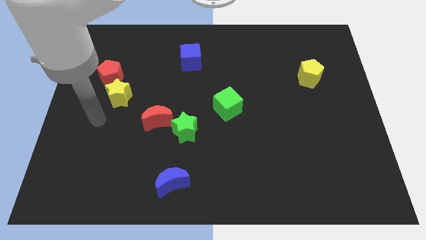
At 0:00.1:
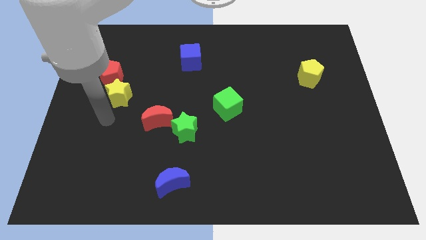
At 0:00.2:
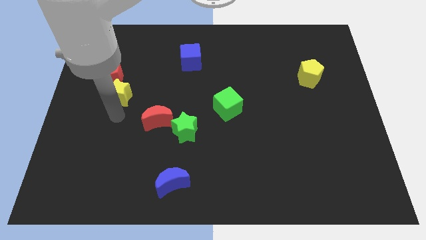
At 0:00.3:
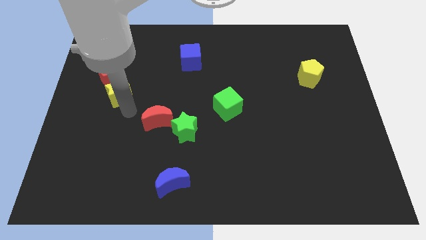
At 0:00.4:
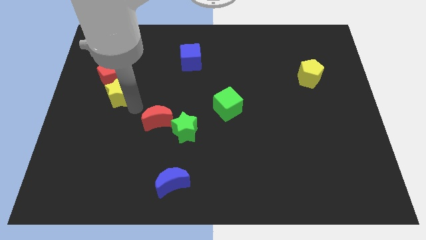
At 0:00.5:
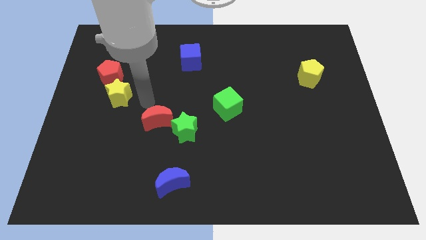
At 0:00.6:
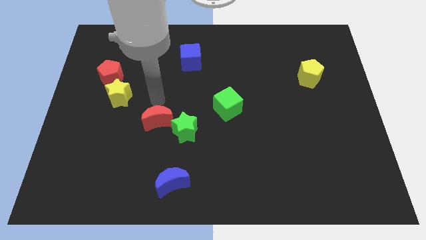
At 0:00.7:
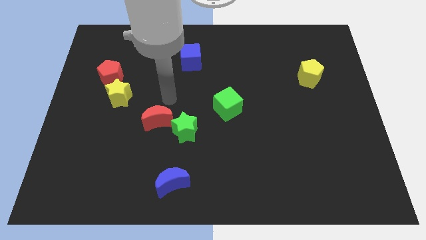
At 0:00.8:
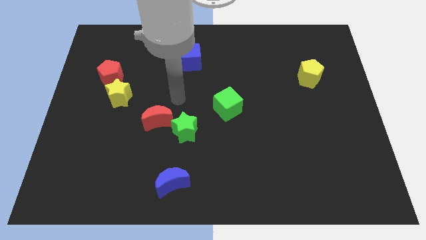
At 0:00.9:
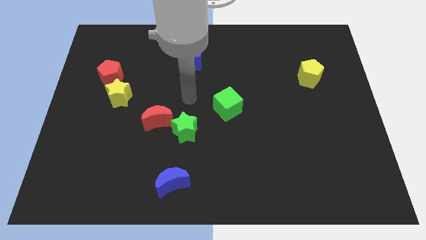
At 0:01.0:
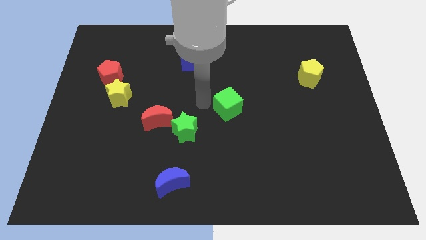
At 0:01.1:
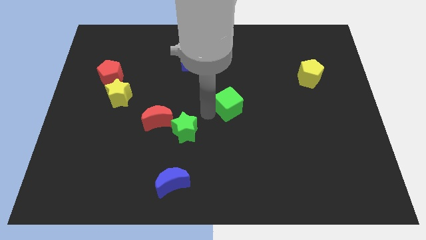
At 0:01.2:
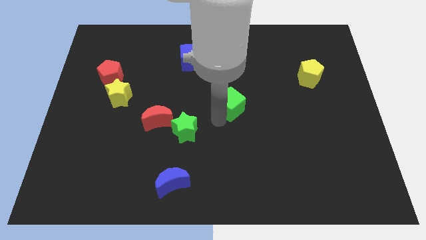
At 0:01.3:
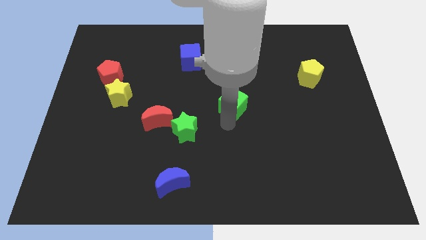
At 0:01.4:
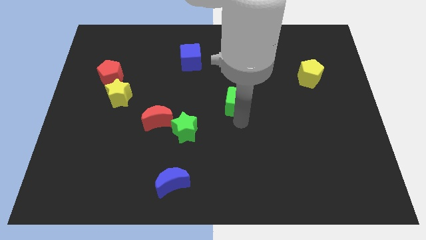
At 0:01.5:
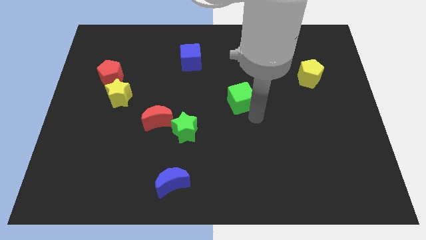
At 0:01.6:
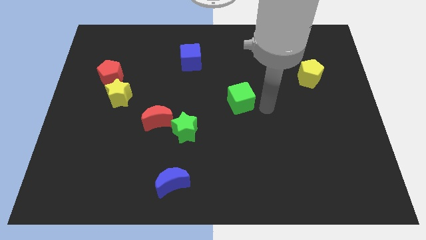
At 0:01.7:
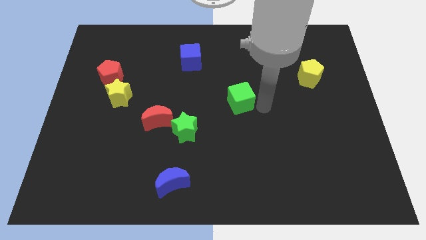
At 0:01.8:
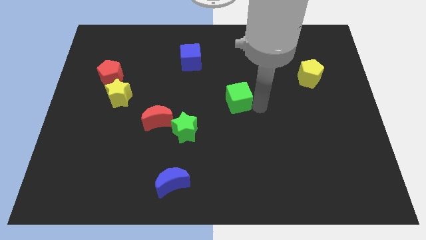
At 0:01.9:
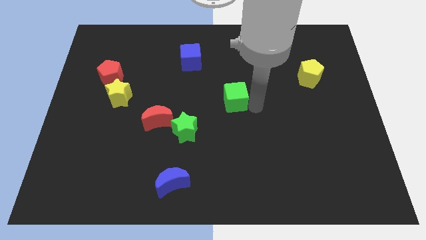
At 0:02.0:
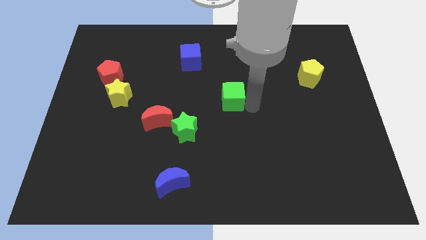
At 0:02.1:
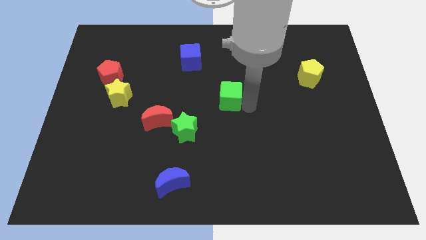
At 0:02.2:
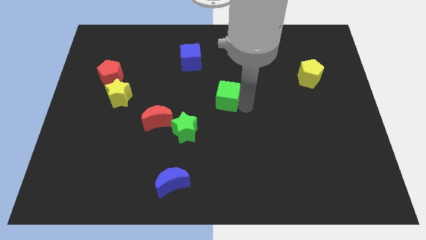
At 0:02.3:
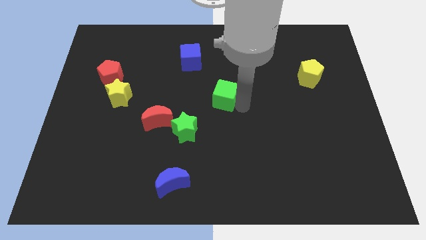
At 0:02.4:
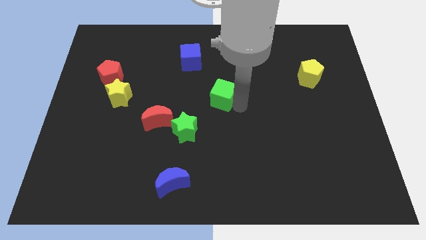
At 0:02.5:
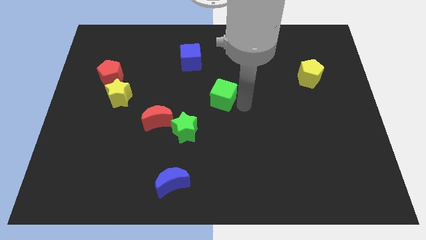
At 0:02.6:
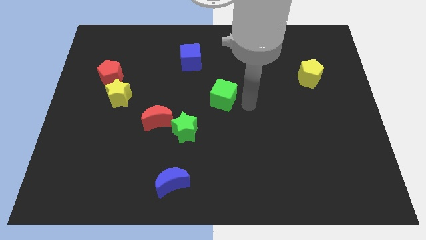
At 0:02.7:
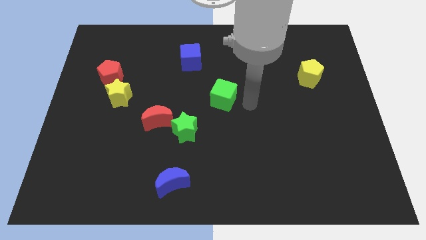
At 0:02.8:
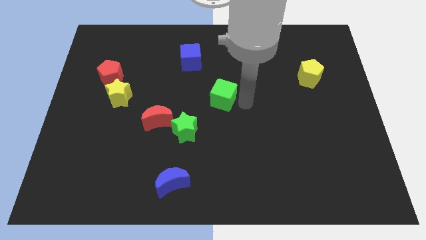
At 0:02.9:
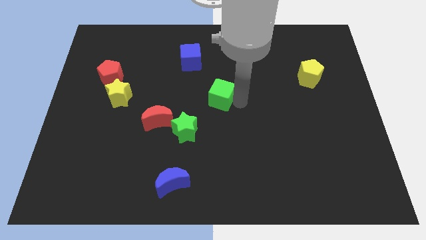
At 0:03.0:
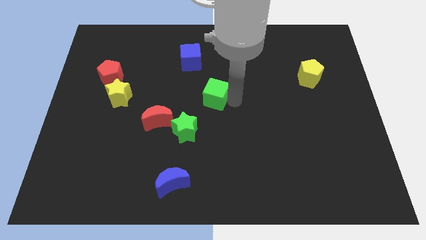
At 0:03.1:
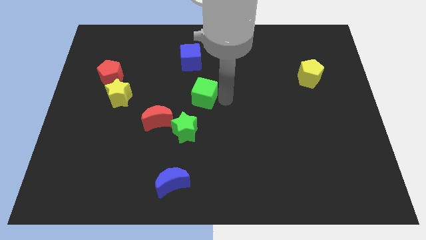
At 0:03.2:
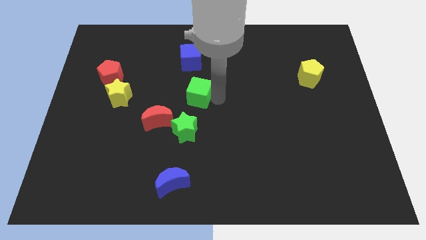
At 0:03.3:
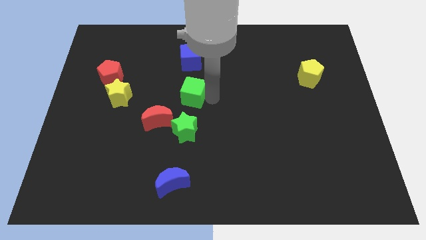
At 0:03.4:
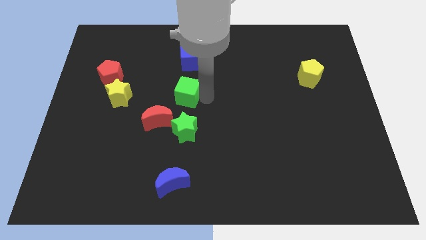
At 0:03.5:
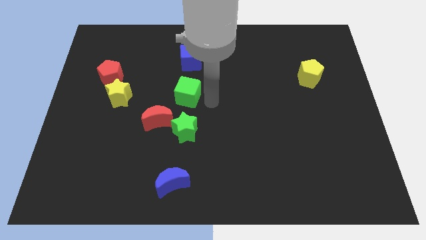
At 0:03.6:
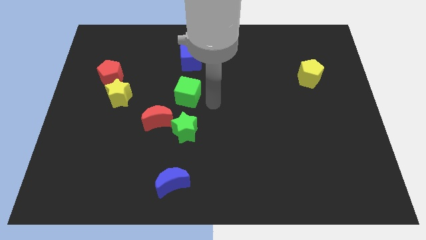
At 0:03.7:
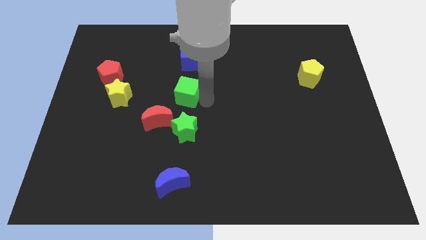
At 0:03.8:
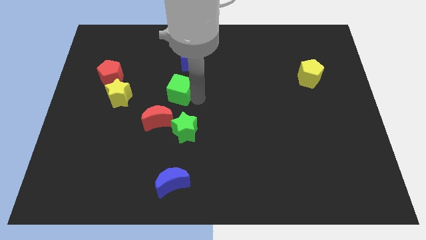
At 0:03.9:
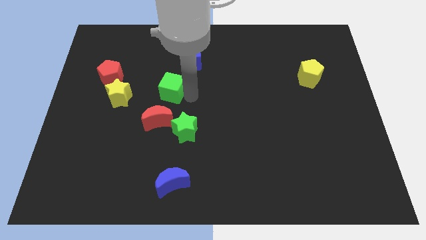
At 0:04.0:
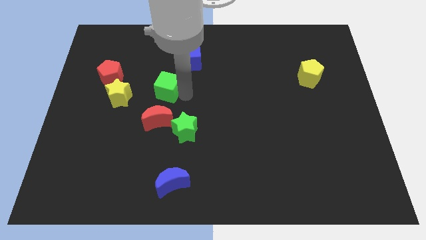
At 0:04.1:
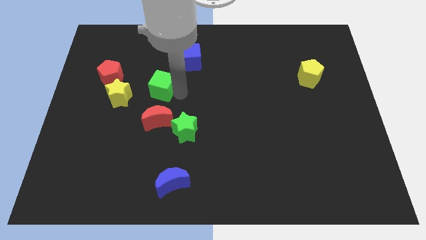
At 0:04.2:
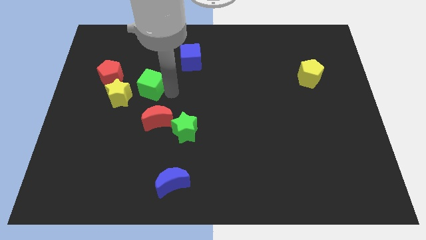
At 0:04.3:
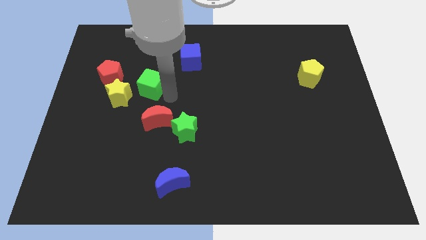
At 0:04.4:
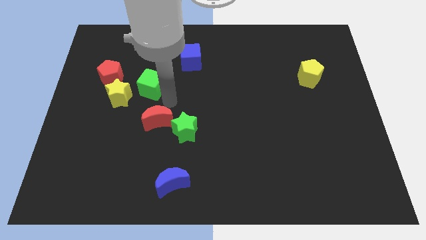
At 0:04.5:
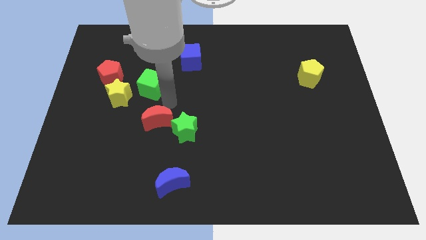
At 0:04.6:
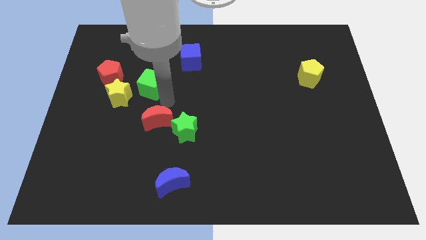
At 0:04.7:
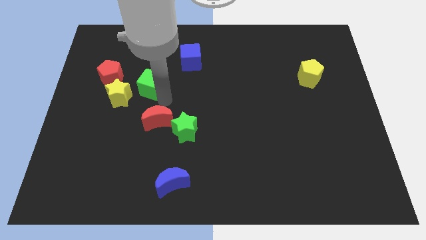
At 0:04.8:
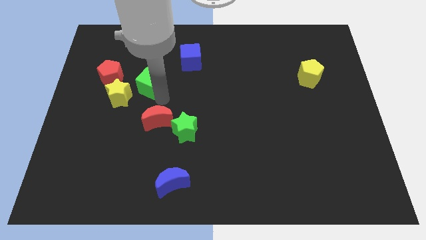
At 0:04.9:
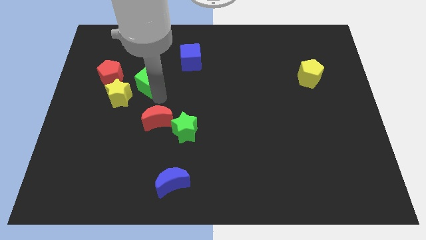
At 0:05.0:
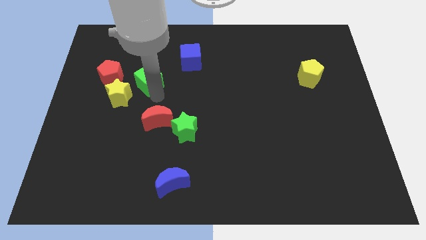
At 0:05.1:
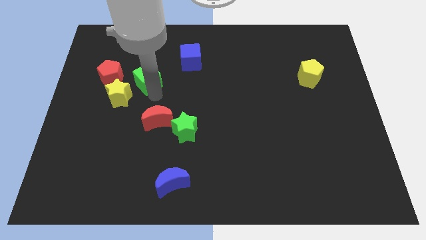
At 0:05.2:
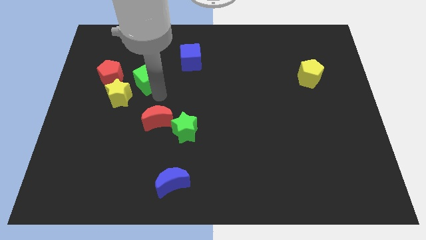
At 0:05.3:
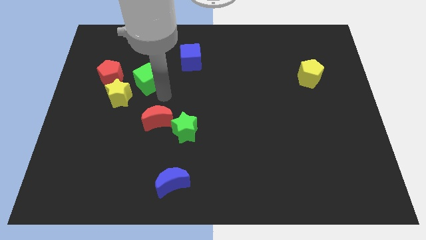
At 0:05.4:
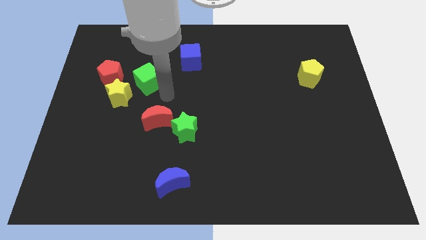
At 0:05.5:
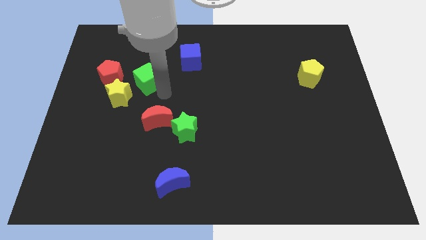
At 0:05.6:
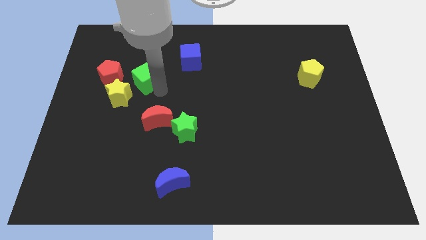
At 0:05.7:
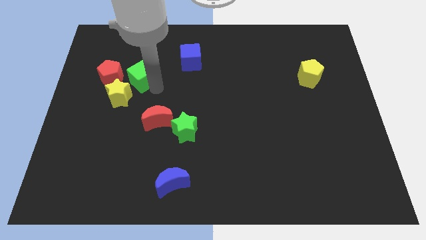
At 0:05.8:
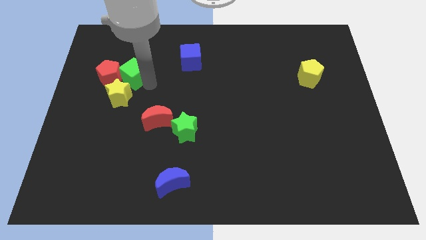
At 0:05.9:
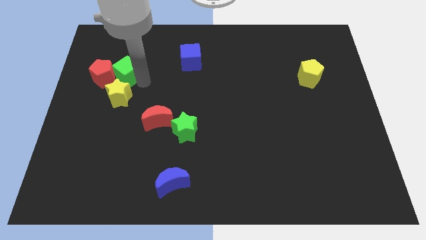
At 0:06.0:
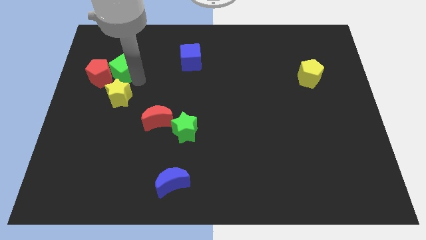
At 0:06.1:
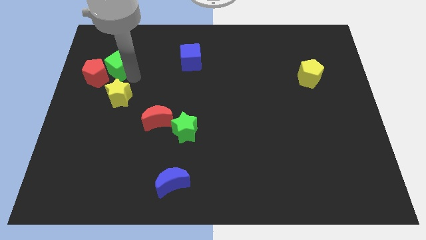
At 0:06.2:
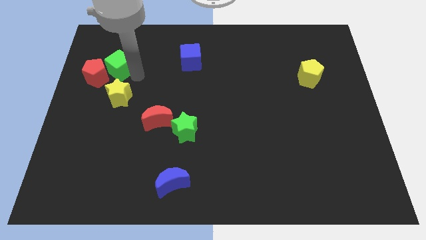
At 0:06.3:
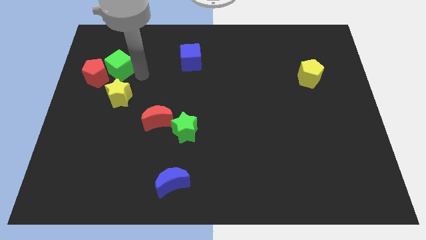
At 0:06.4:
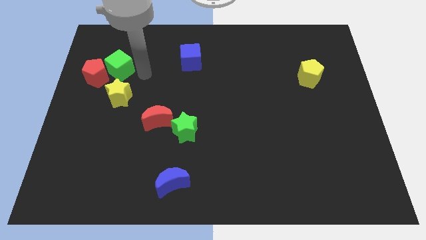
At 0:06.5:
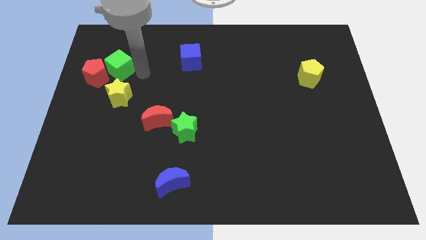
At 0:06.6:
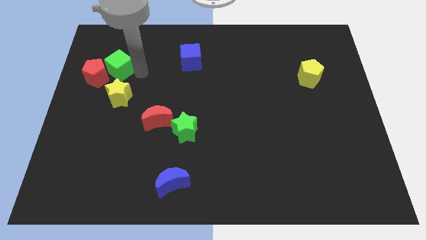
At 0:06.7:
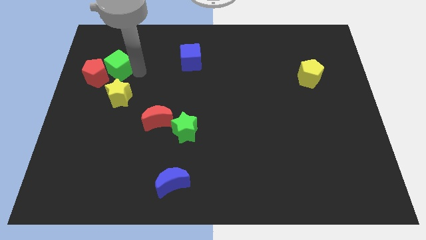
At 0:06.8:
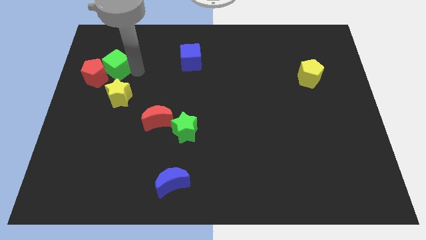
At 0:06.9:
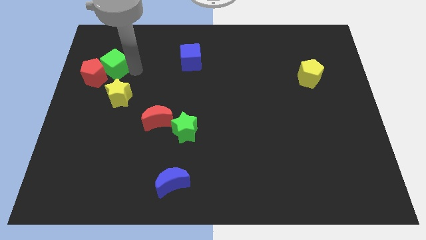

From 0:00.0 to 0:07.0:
slide the green cube diagonally up and to the left of the yellow star
